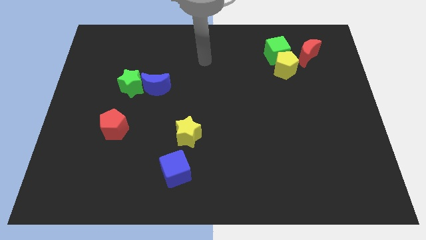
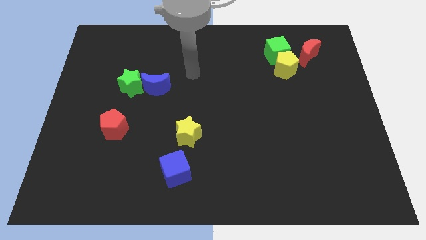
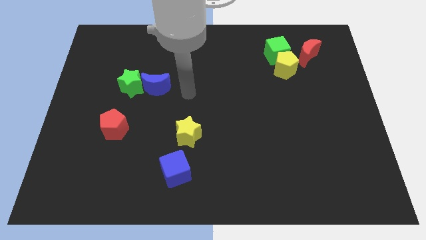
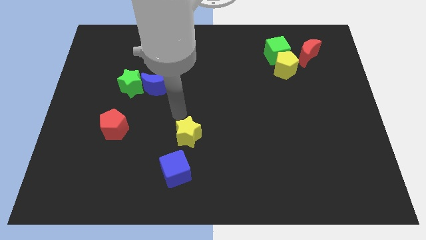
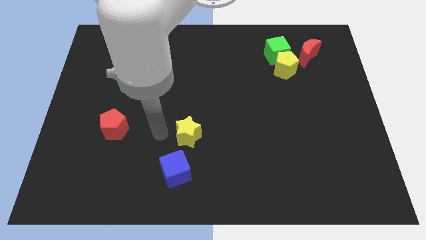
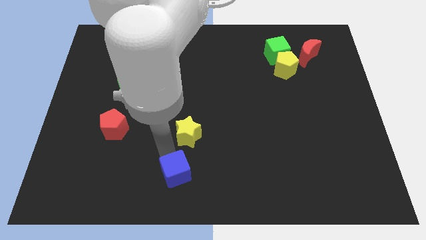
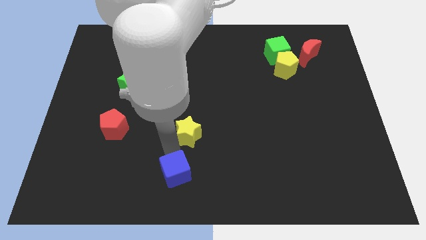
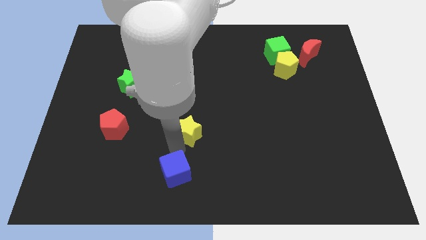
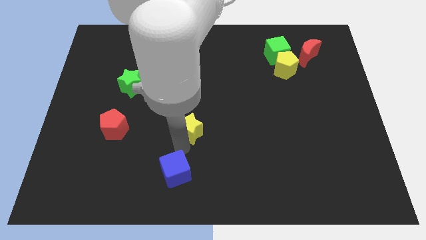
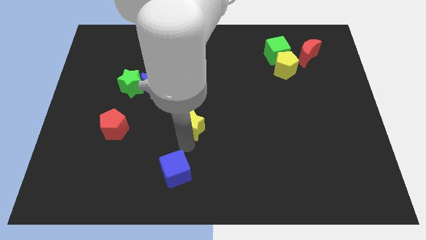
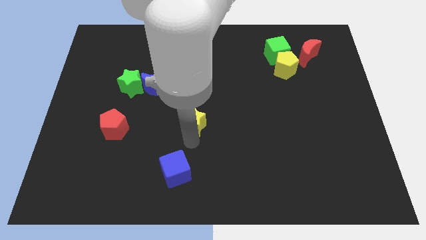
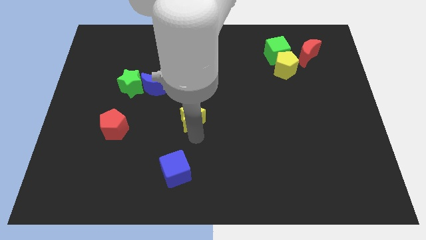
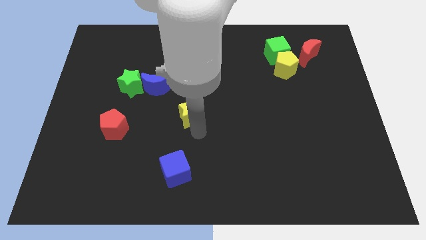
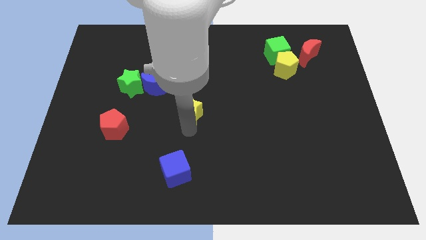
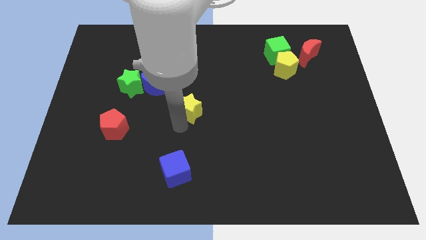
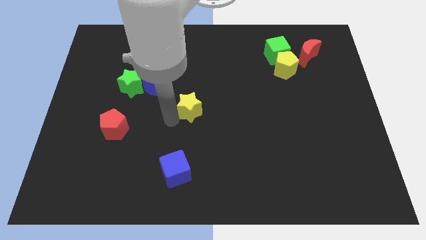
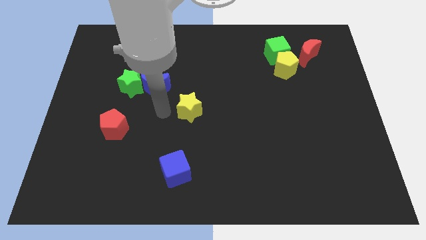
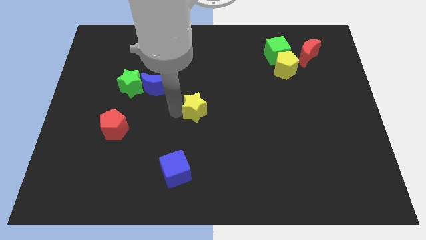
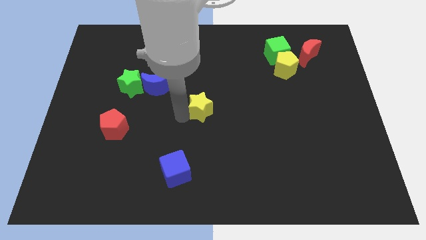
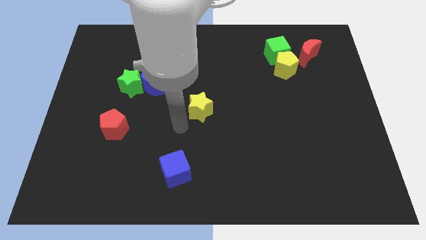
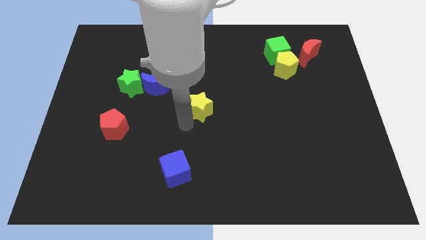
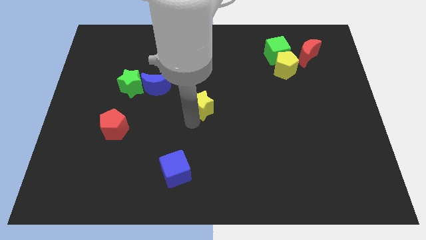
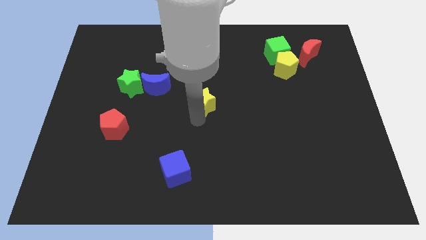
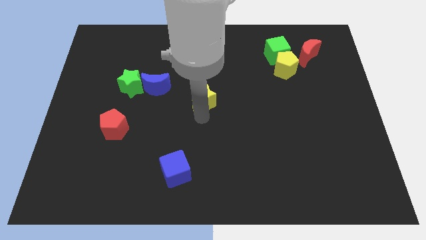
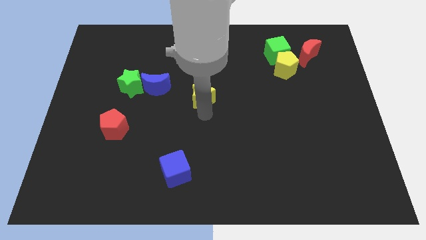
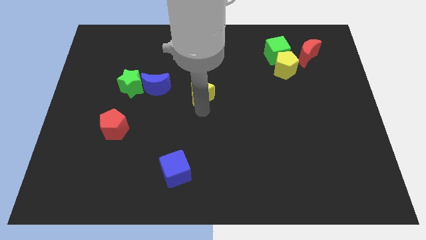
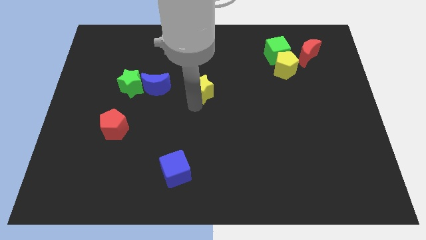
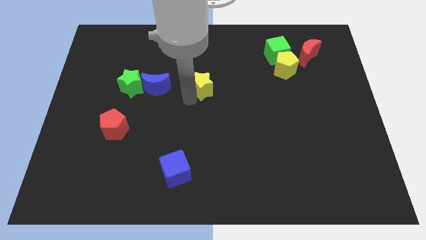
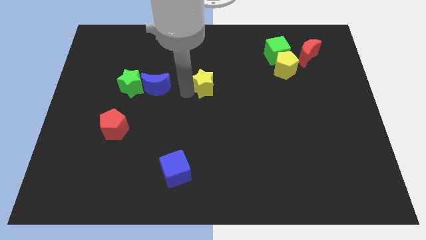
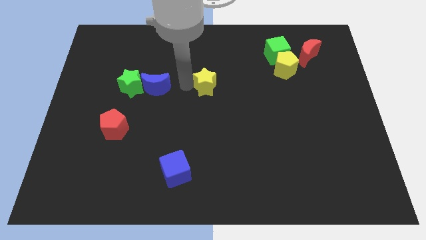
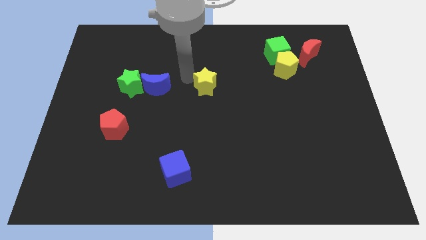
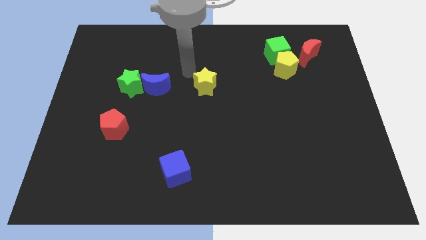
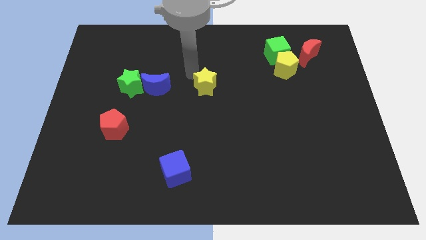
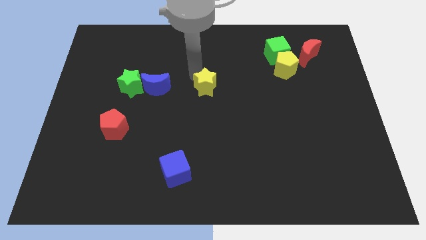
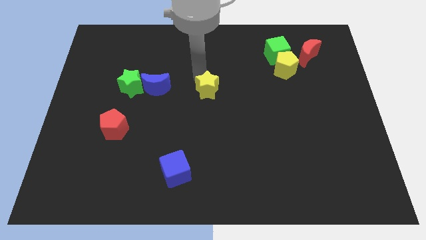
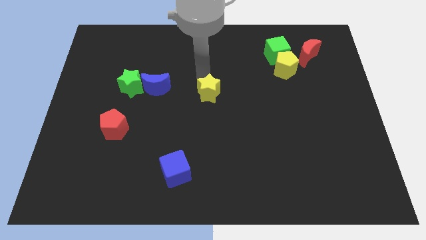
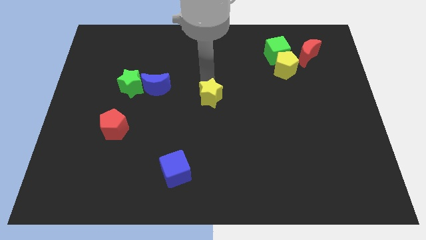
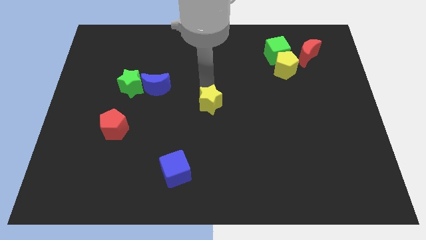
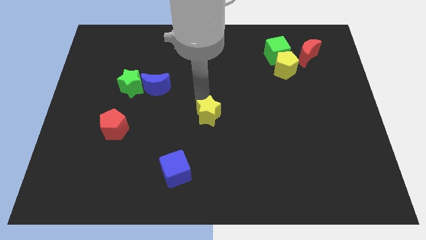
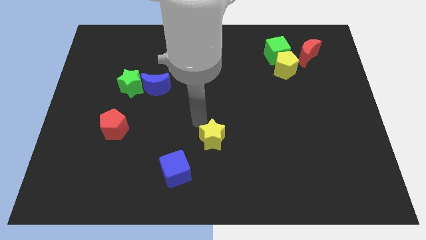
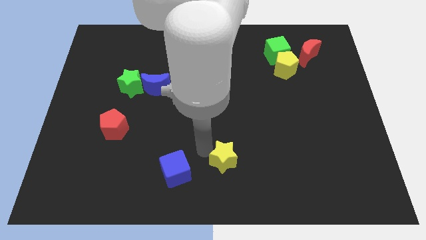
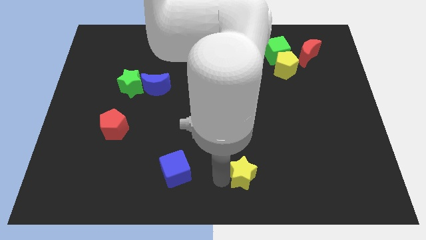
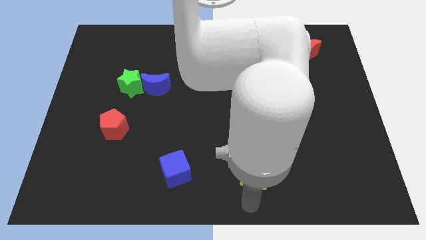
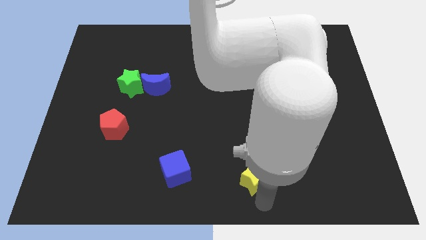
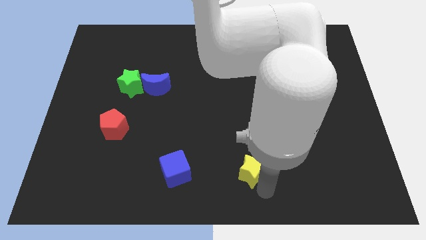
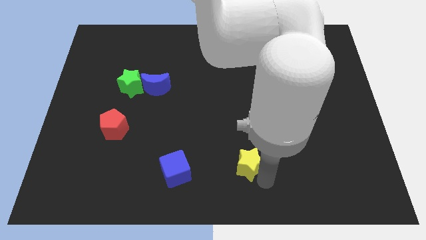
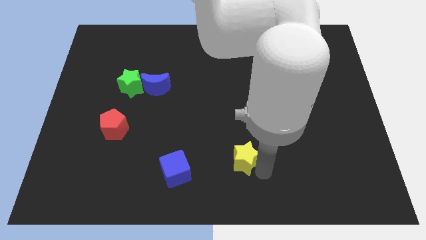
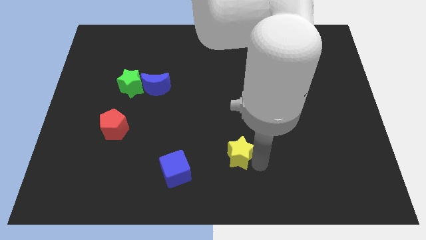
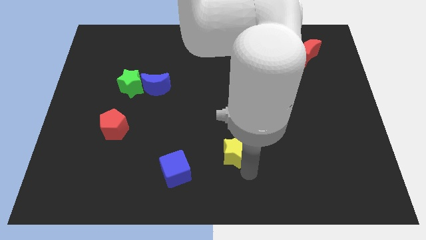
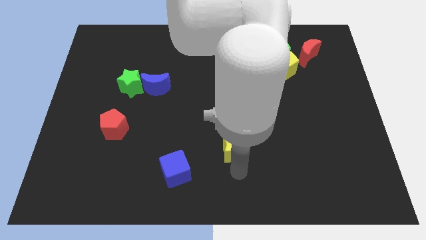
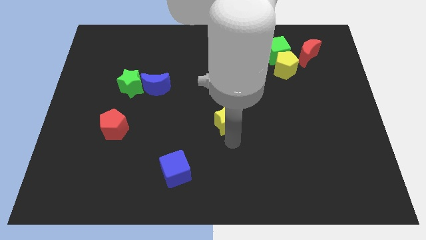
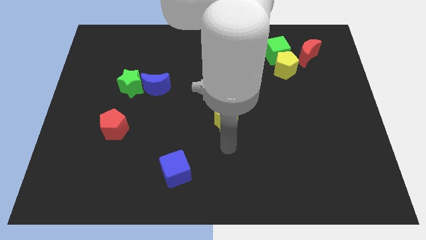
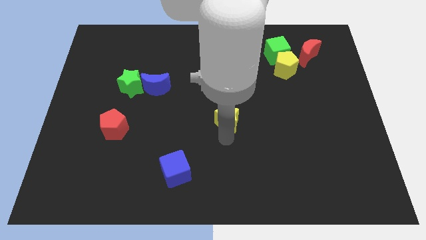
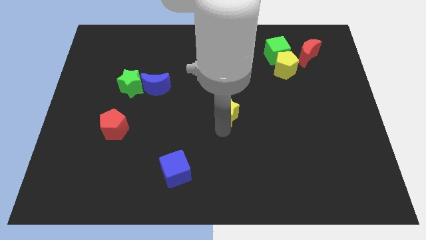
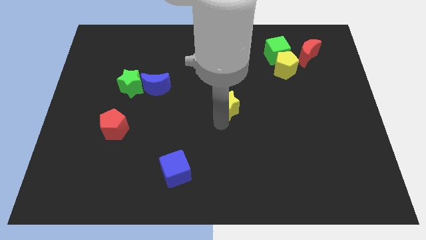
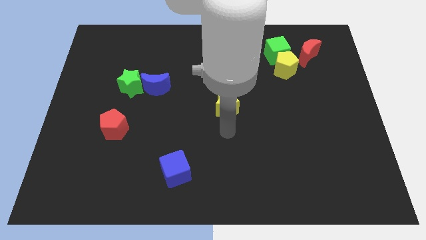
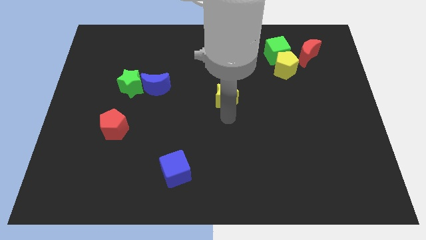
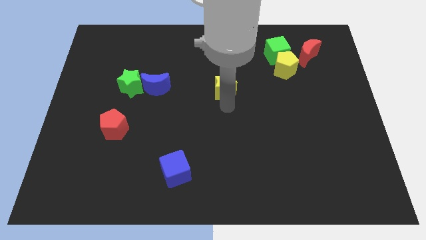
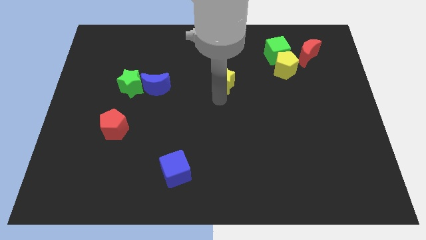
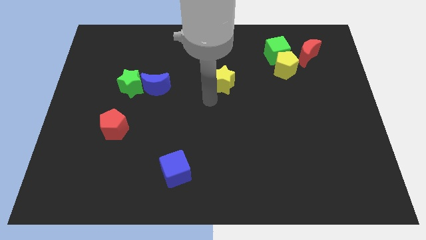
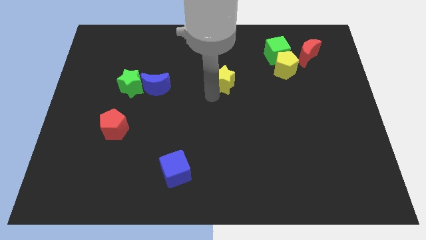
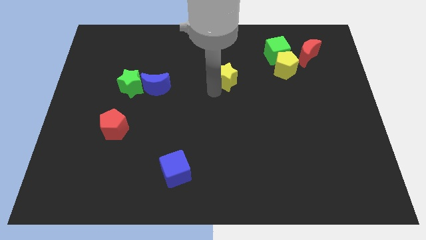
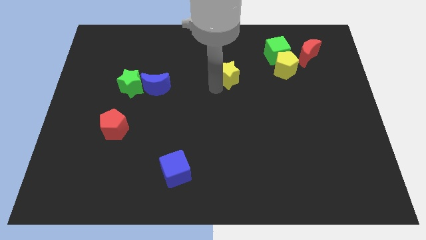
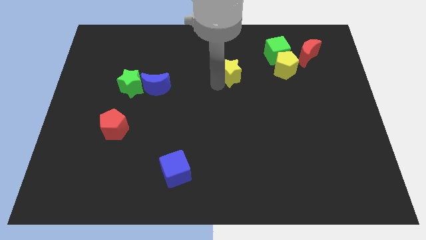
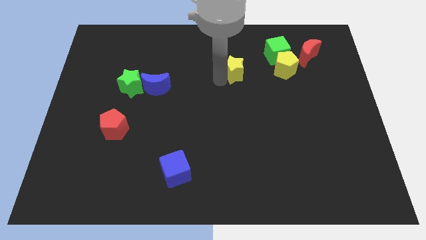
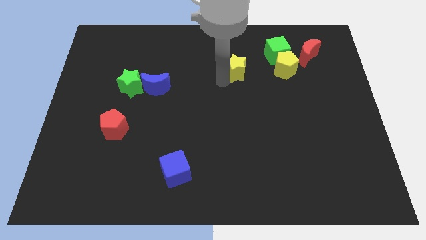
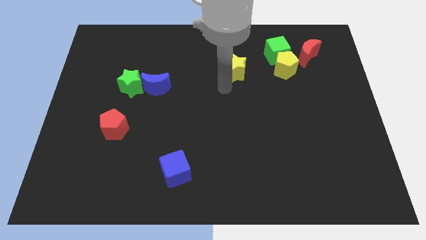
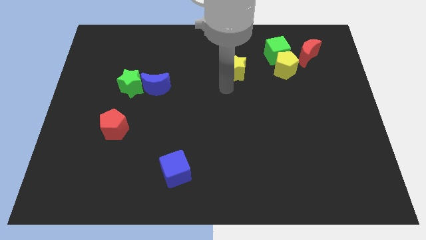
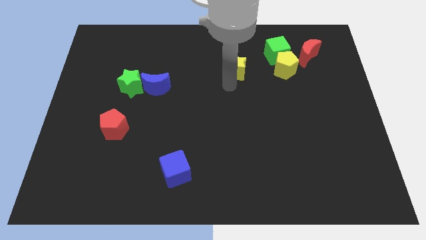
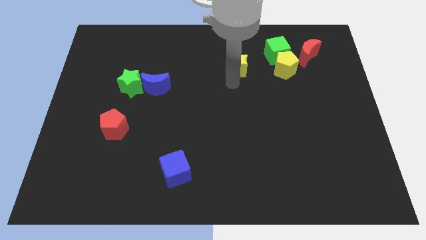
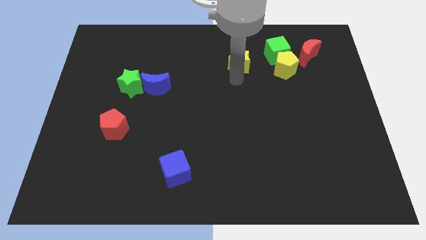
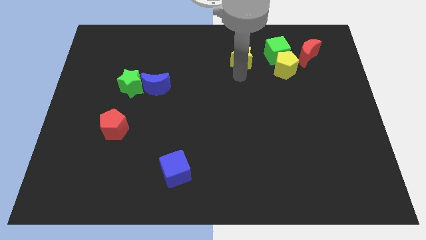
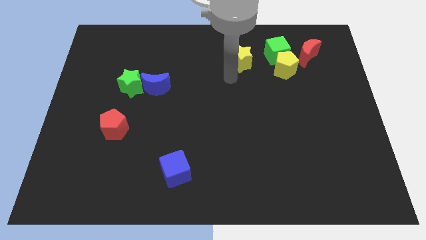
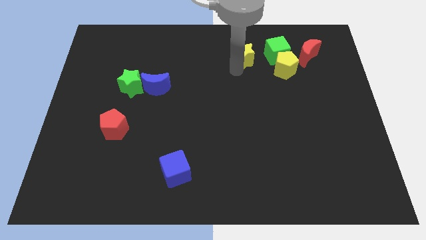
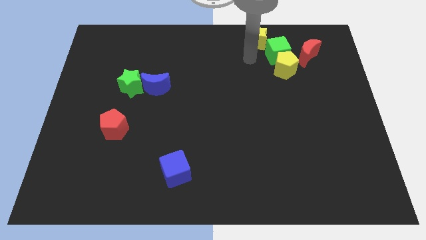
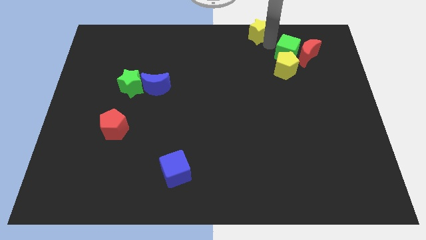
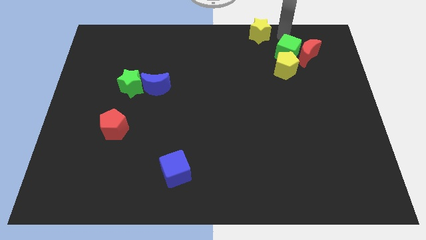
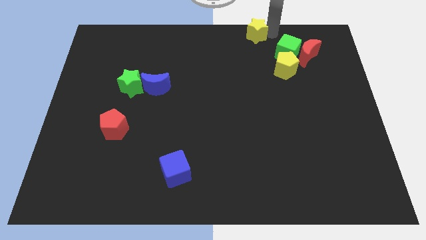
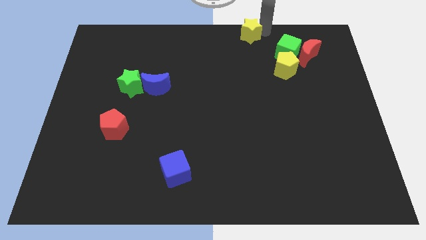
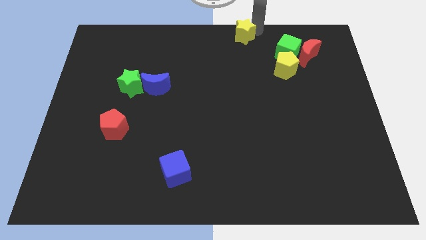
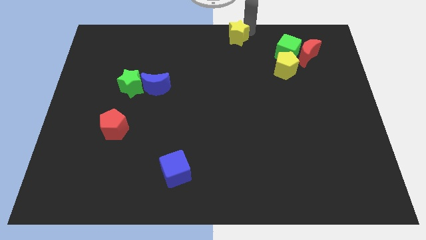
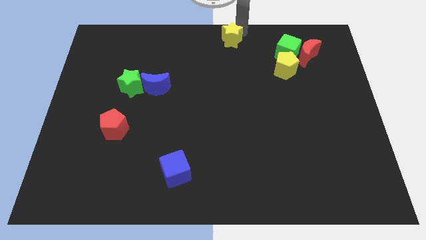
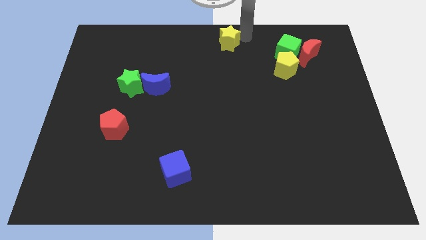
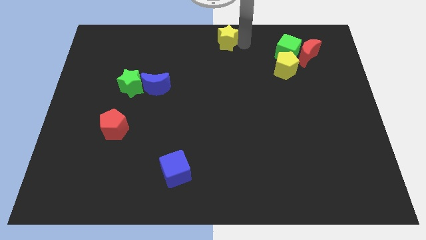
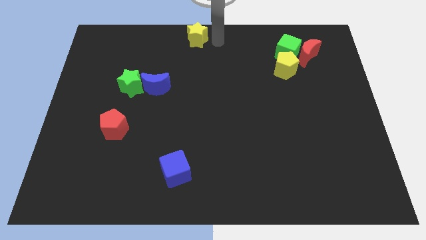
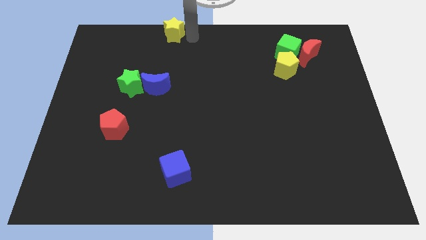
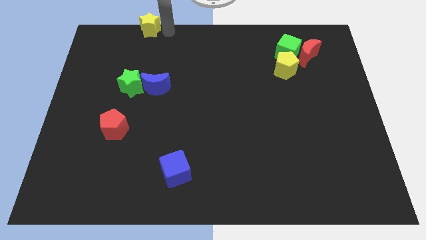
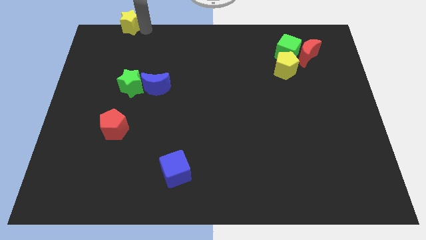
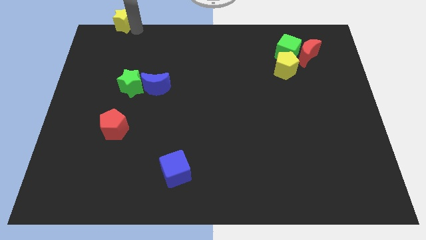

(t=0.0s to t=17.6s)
put the yellow star to the top left of the board
